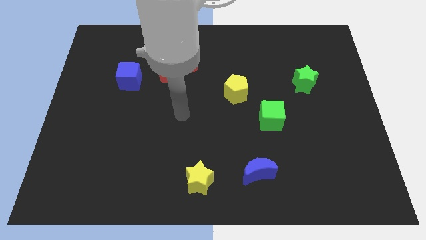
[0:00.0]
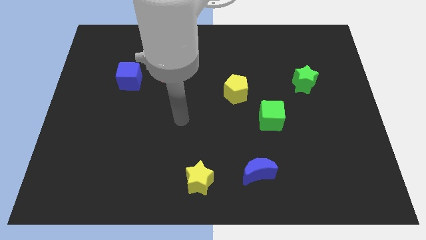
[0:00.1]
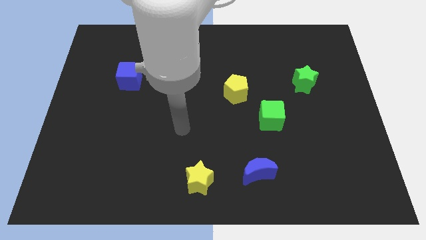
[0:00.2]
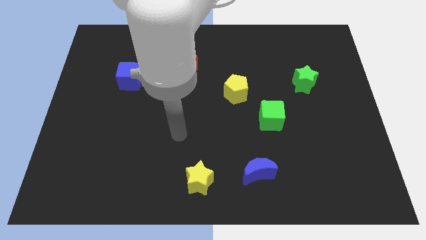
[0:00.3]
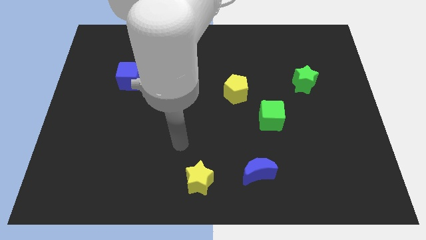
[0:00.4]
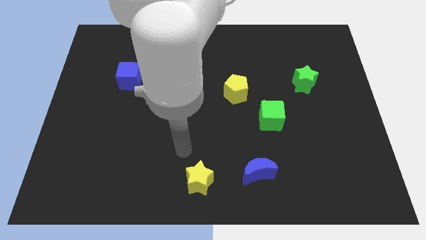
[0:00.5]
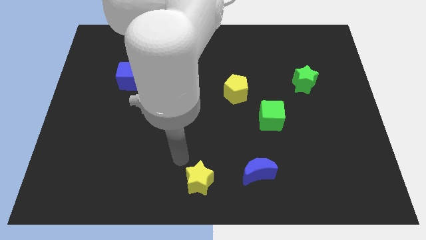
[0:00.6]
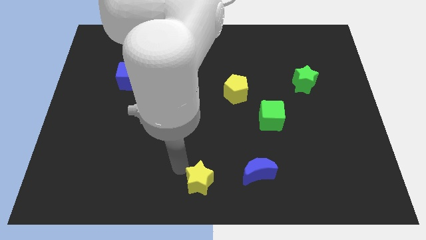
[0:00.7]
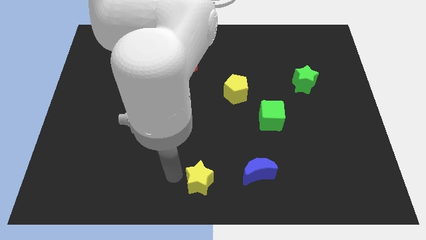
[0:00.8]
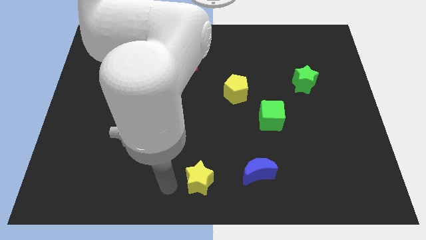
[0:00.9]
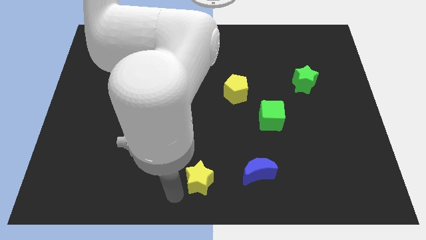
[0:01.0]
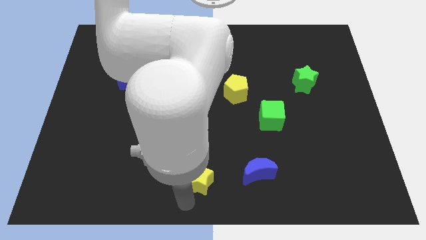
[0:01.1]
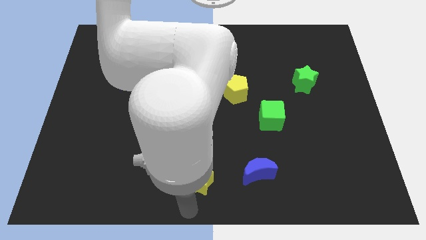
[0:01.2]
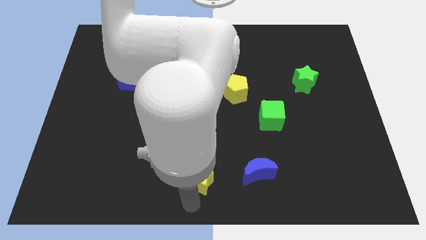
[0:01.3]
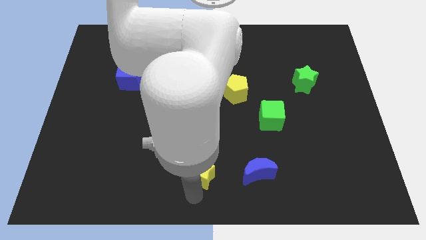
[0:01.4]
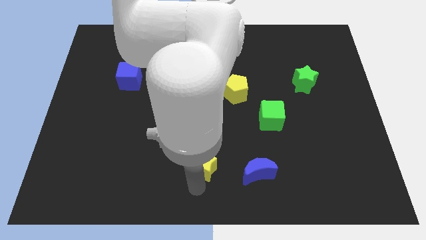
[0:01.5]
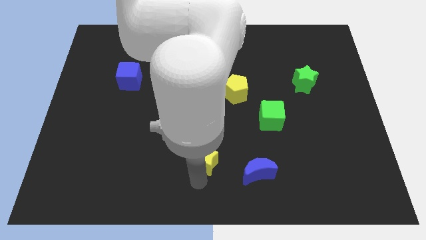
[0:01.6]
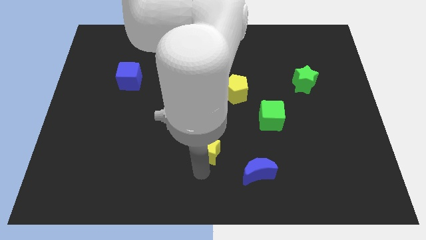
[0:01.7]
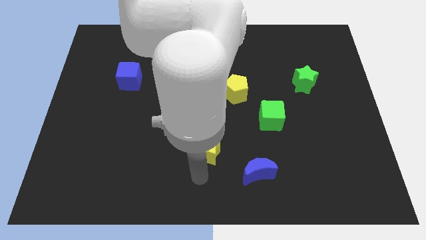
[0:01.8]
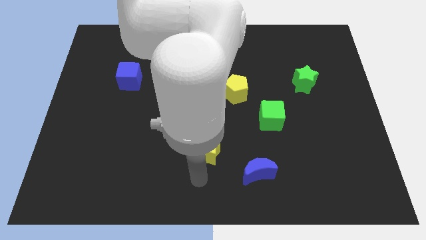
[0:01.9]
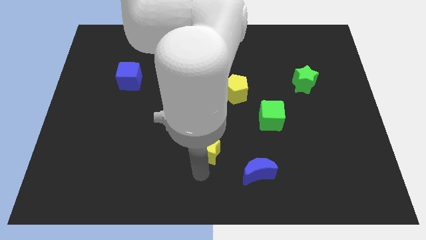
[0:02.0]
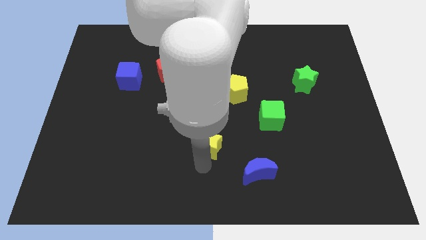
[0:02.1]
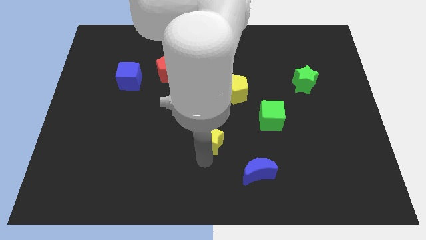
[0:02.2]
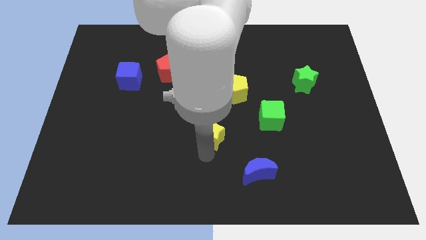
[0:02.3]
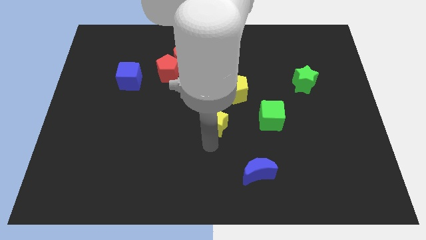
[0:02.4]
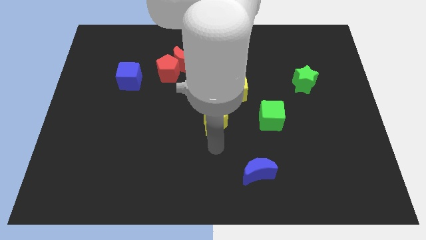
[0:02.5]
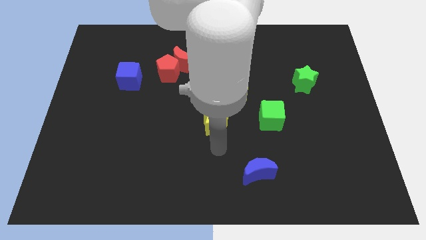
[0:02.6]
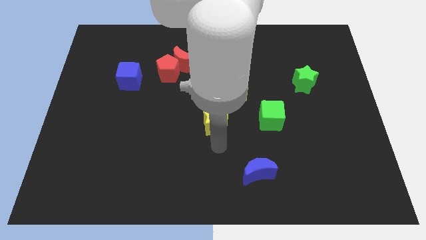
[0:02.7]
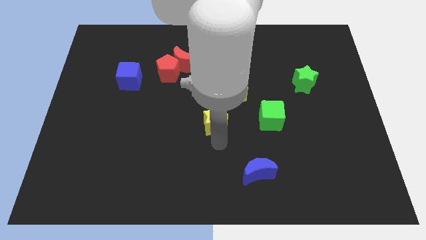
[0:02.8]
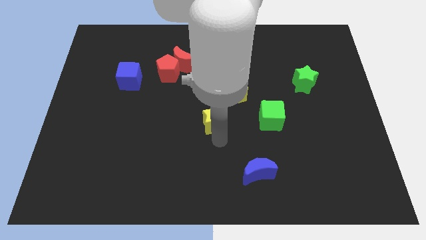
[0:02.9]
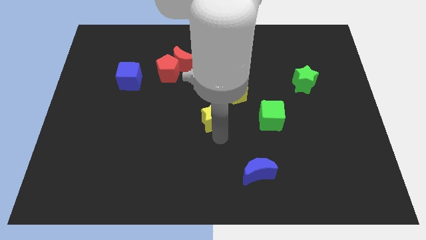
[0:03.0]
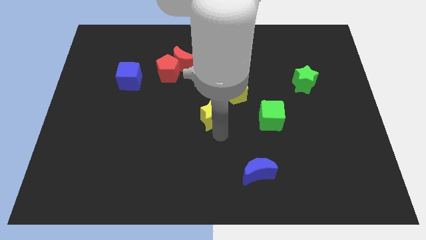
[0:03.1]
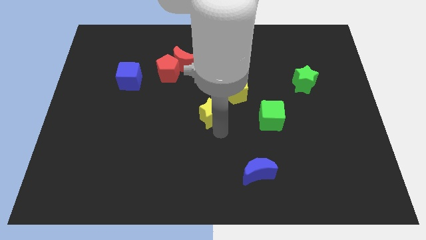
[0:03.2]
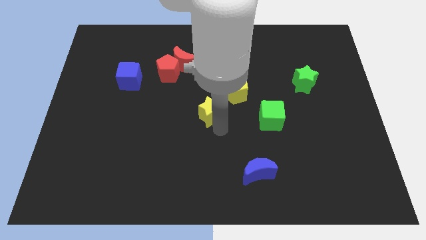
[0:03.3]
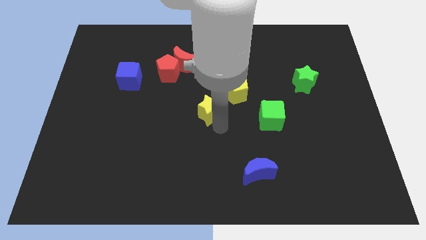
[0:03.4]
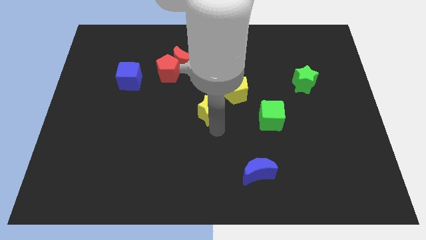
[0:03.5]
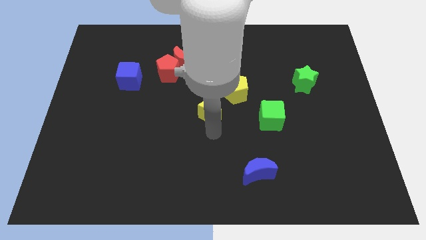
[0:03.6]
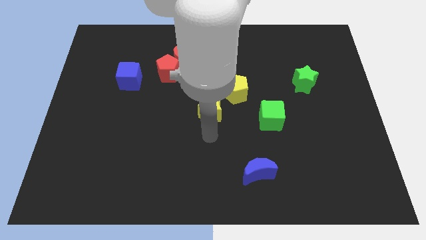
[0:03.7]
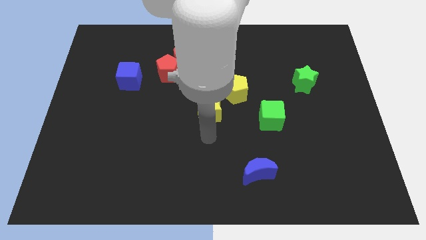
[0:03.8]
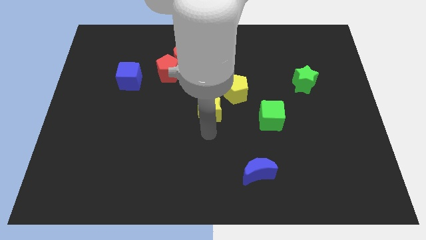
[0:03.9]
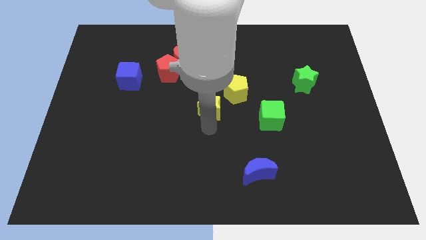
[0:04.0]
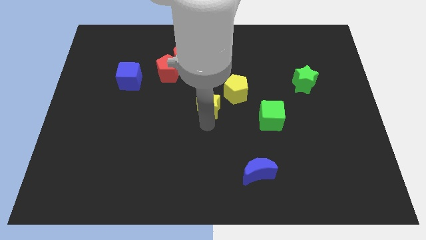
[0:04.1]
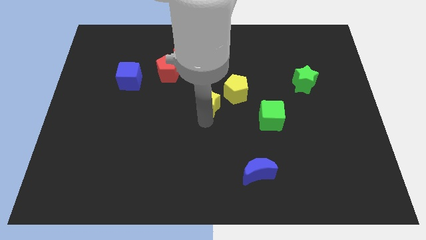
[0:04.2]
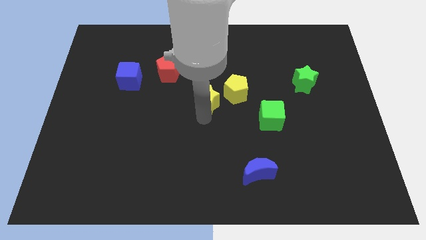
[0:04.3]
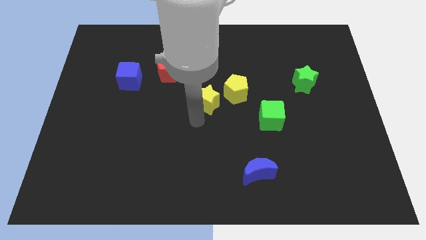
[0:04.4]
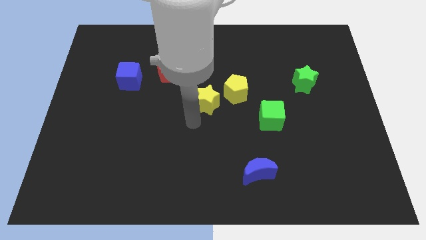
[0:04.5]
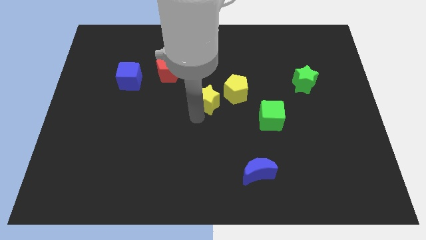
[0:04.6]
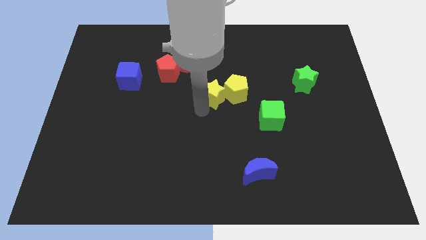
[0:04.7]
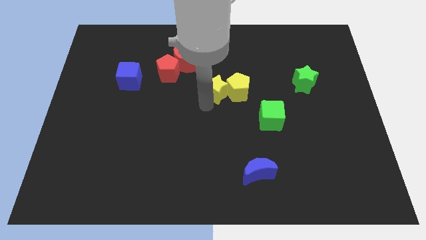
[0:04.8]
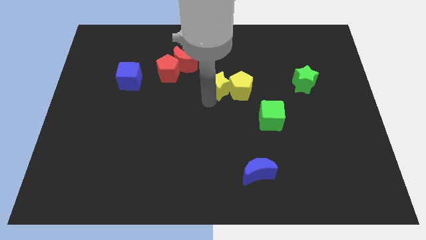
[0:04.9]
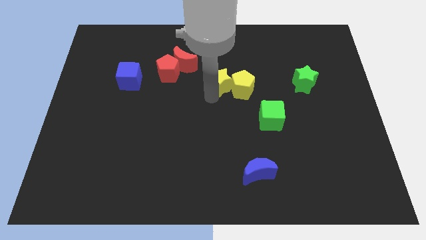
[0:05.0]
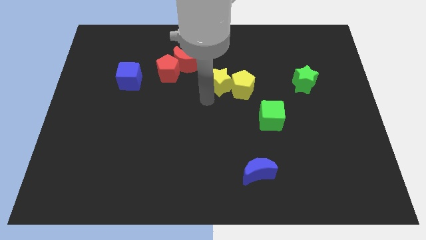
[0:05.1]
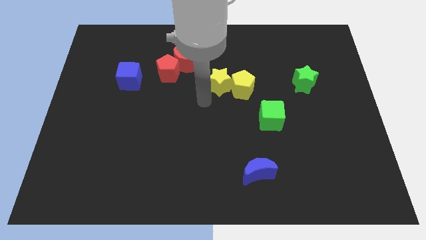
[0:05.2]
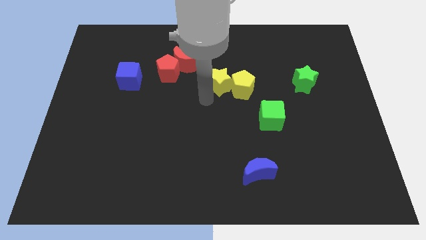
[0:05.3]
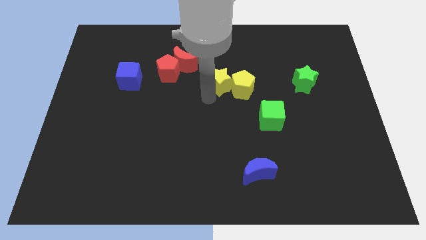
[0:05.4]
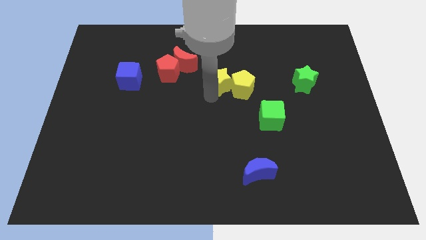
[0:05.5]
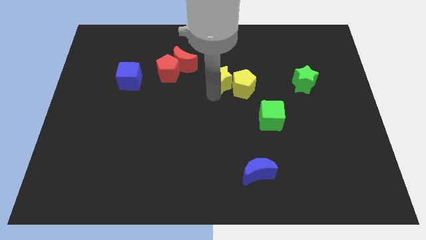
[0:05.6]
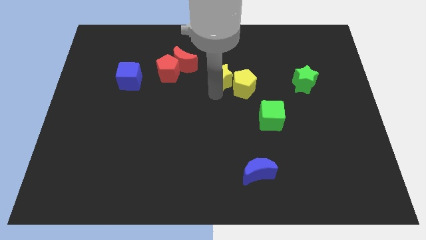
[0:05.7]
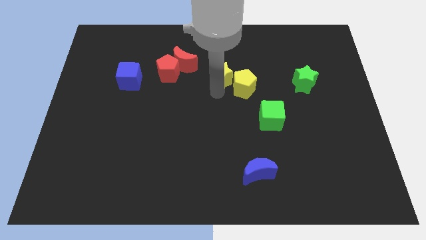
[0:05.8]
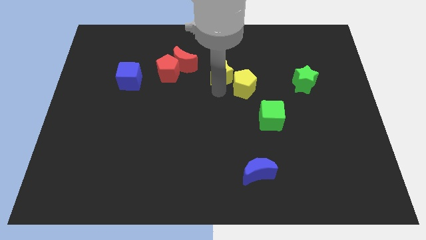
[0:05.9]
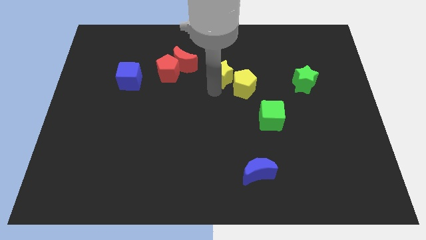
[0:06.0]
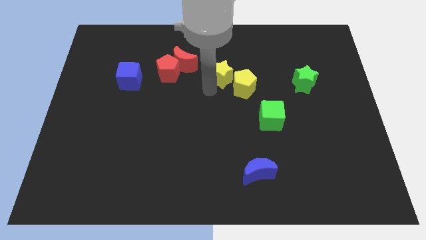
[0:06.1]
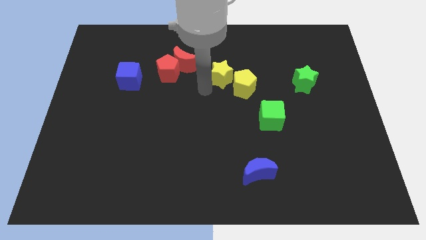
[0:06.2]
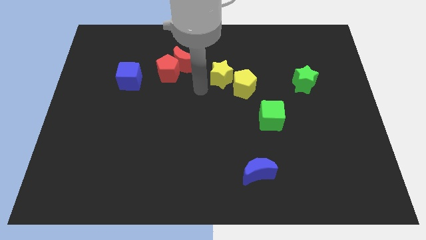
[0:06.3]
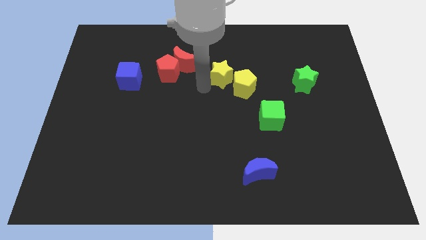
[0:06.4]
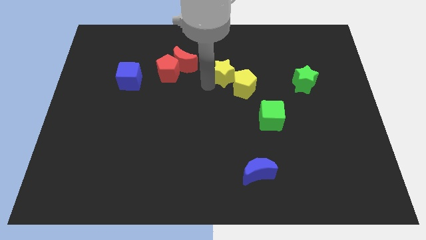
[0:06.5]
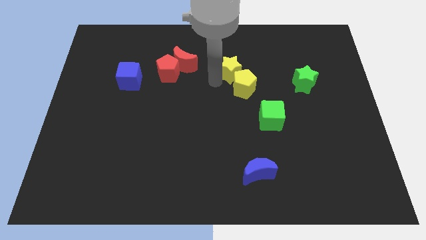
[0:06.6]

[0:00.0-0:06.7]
slide the yellow star to the top side of the yellow pentagon
